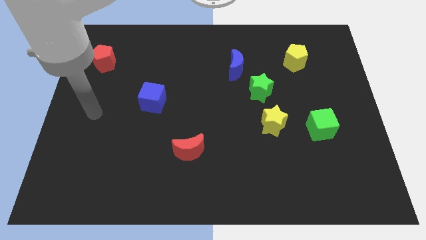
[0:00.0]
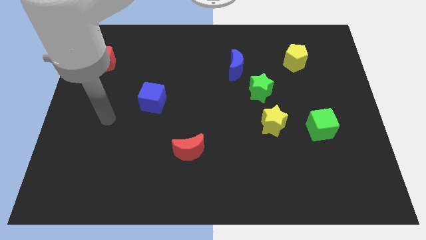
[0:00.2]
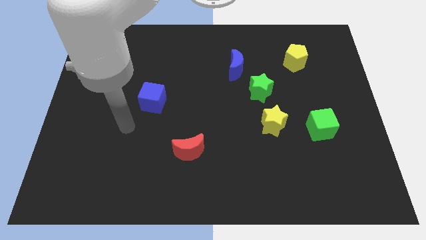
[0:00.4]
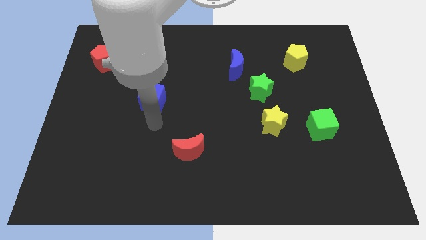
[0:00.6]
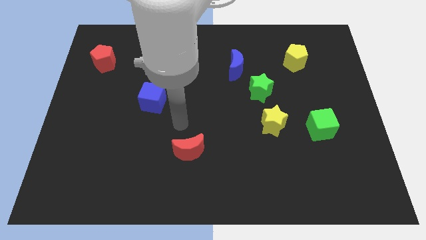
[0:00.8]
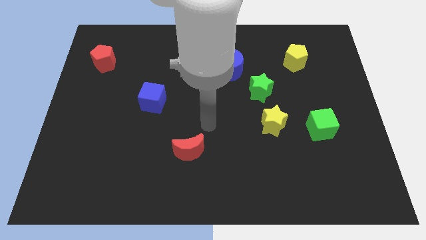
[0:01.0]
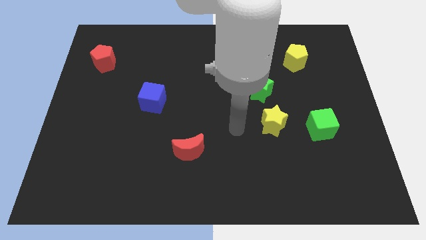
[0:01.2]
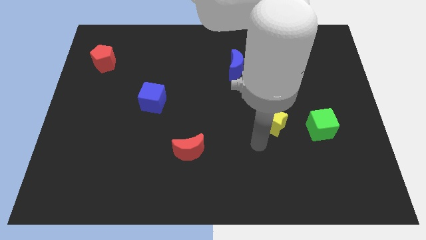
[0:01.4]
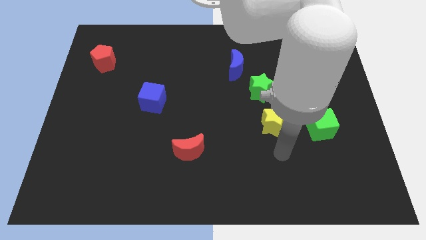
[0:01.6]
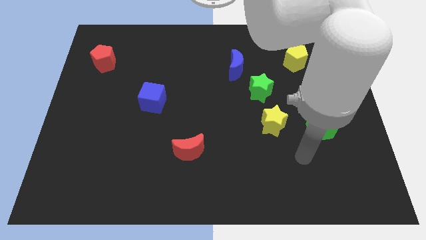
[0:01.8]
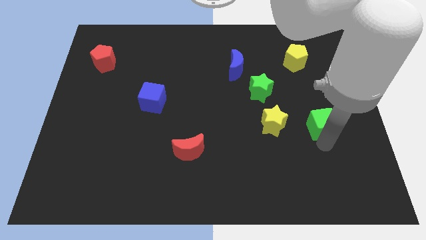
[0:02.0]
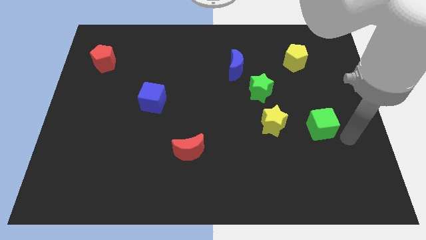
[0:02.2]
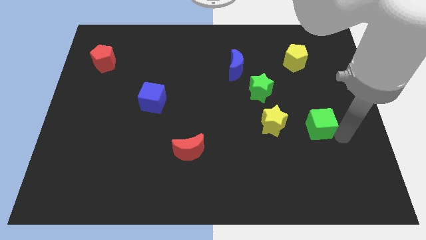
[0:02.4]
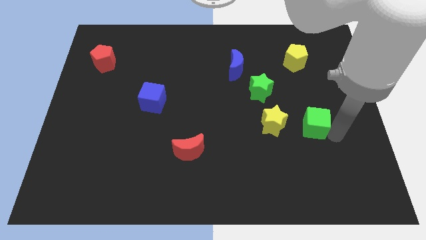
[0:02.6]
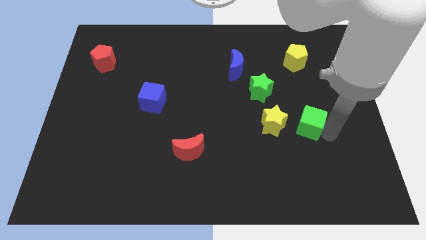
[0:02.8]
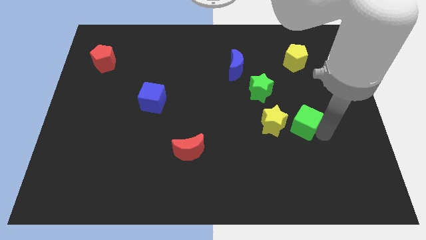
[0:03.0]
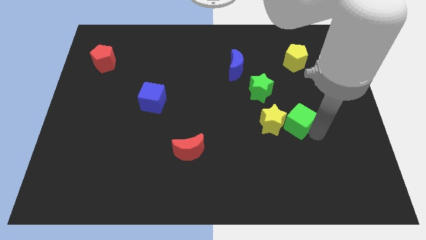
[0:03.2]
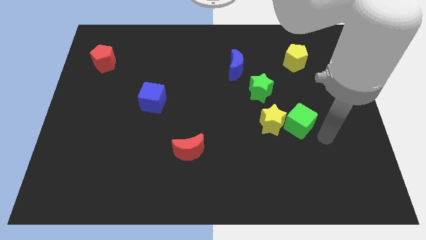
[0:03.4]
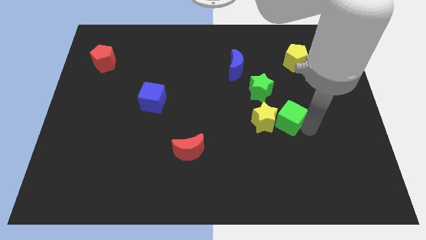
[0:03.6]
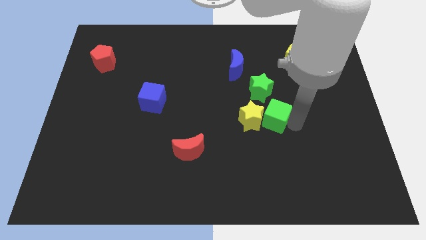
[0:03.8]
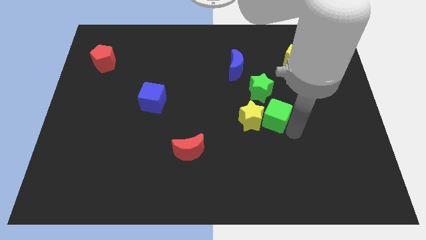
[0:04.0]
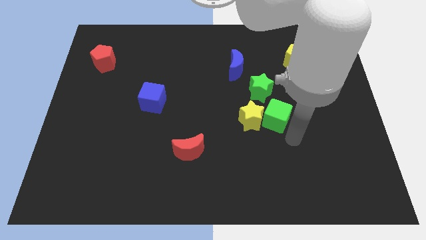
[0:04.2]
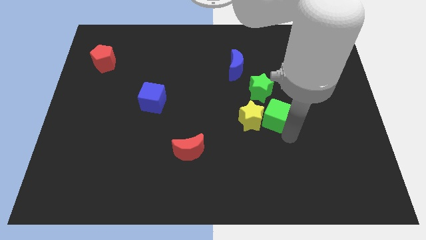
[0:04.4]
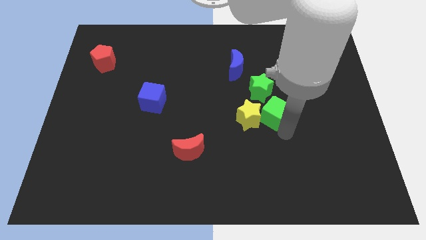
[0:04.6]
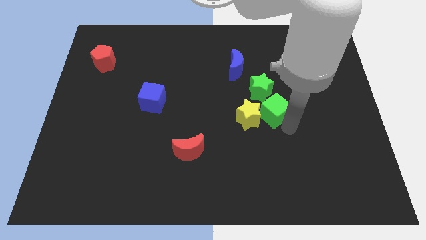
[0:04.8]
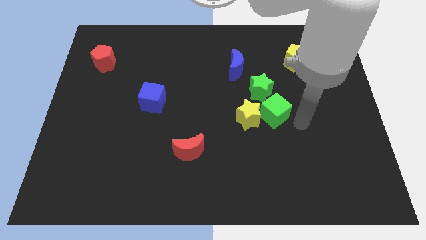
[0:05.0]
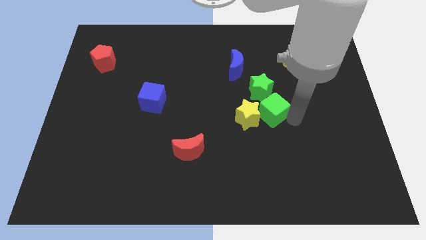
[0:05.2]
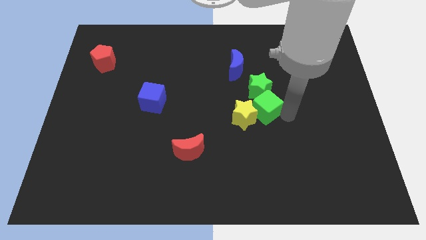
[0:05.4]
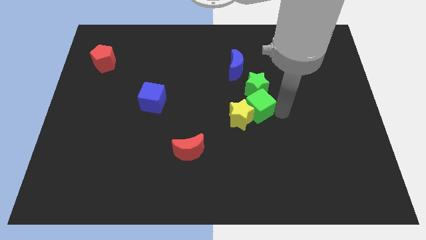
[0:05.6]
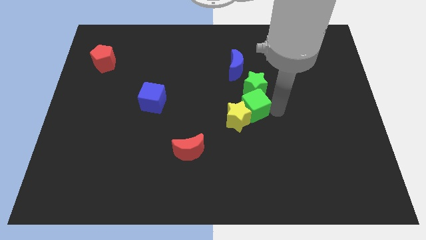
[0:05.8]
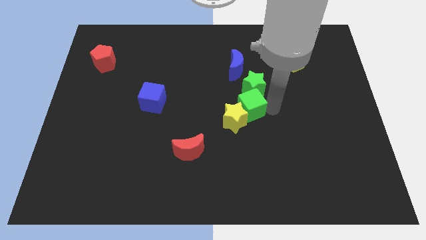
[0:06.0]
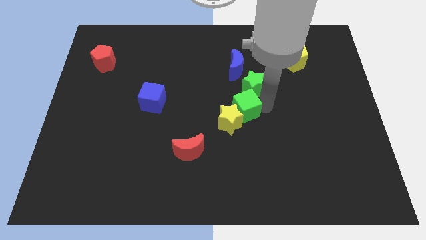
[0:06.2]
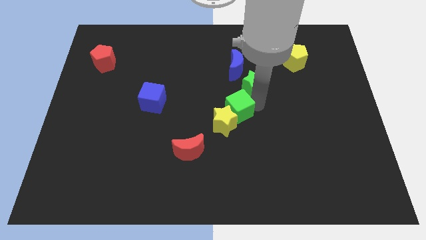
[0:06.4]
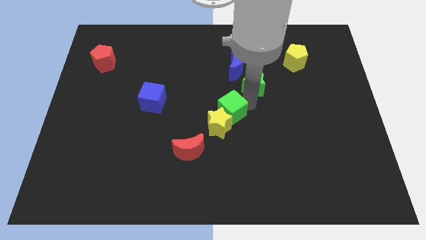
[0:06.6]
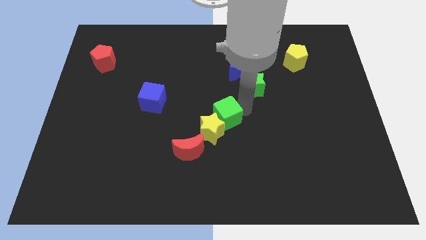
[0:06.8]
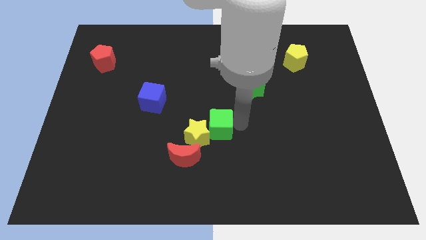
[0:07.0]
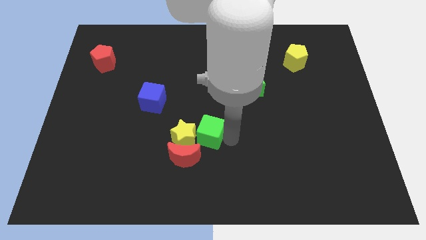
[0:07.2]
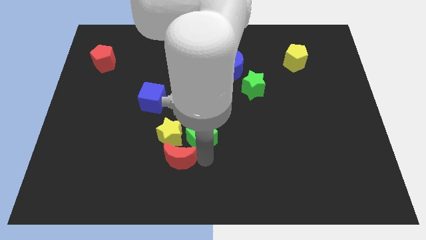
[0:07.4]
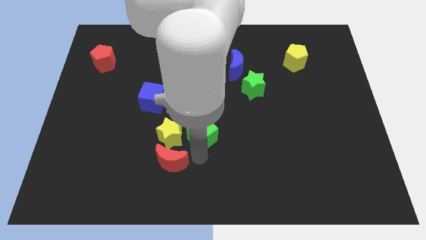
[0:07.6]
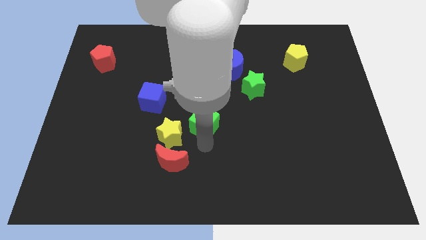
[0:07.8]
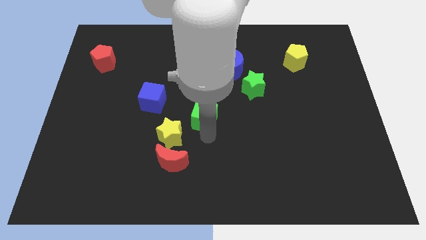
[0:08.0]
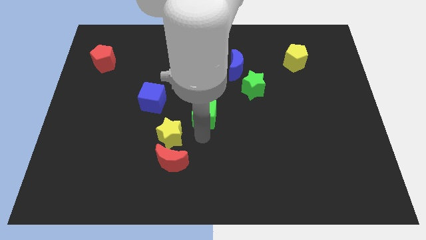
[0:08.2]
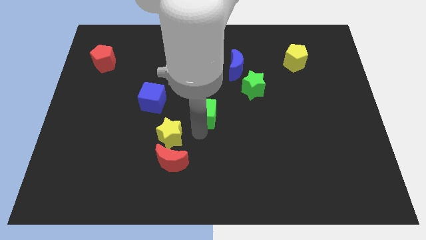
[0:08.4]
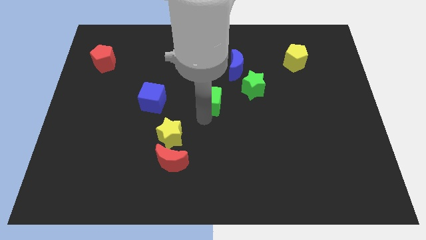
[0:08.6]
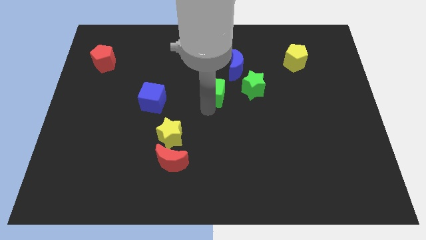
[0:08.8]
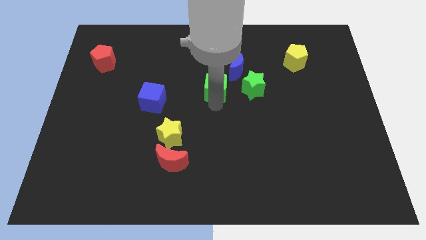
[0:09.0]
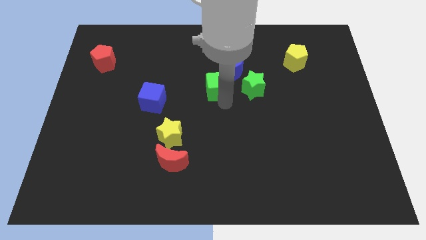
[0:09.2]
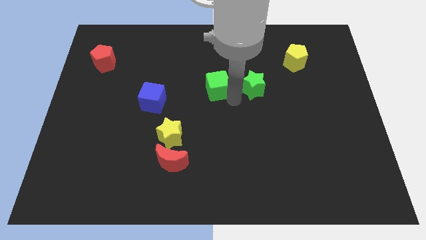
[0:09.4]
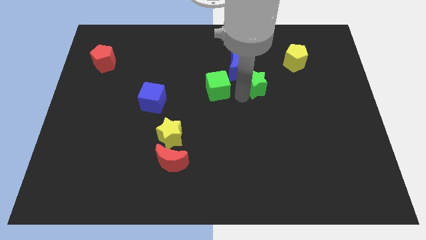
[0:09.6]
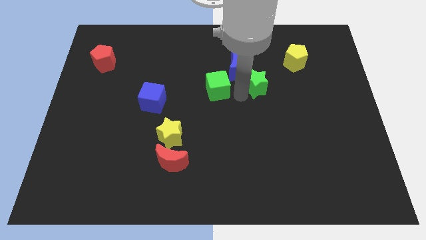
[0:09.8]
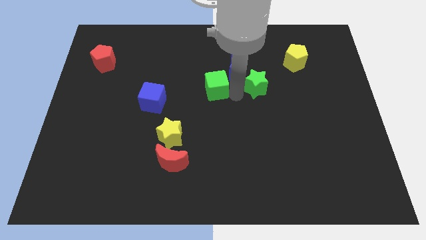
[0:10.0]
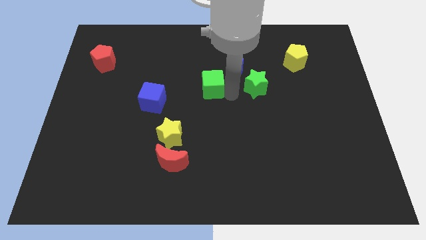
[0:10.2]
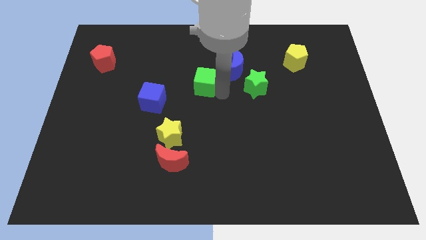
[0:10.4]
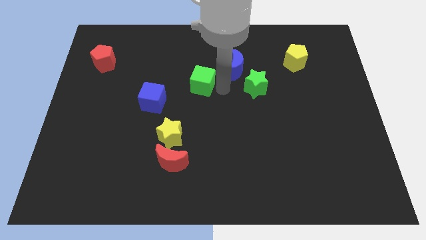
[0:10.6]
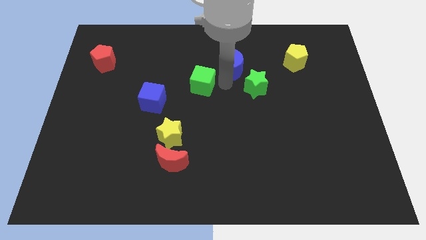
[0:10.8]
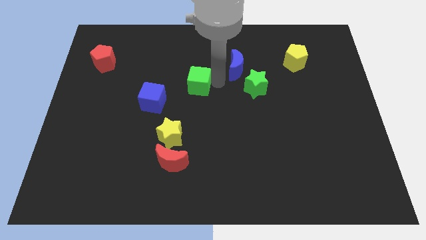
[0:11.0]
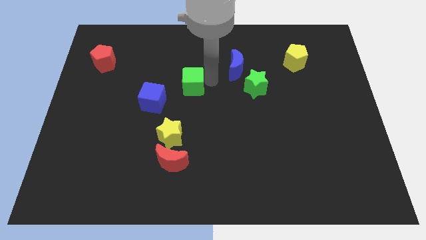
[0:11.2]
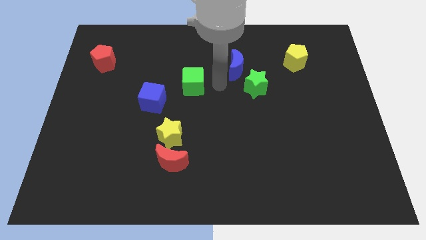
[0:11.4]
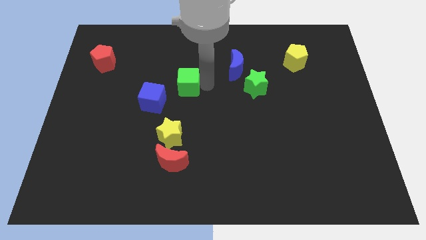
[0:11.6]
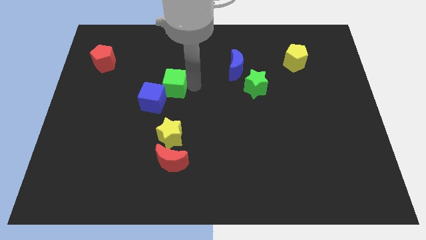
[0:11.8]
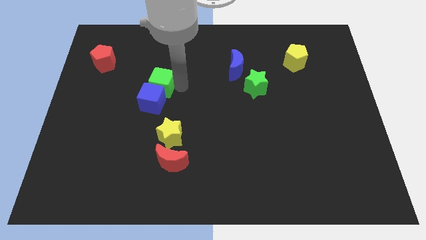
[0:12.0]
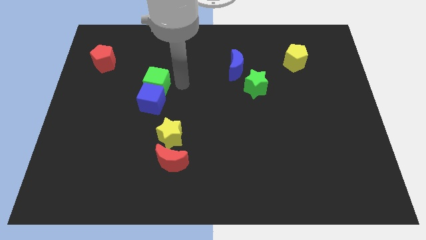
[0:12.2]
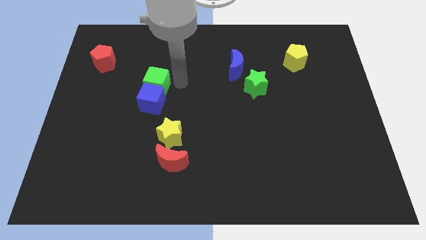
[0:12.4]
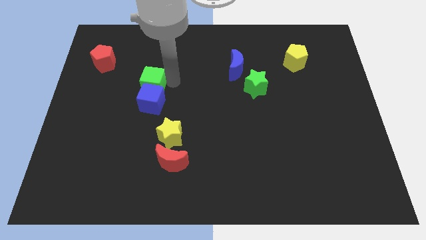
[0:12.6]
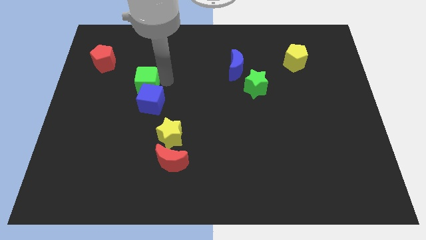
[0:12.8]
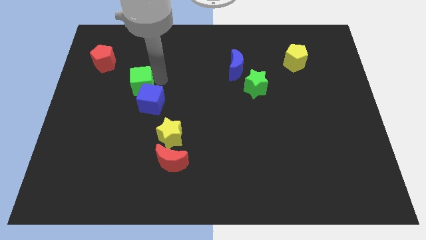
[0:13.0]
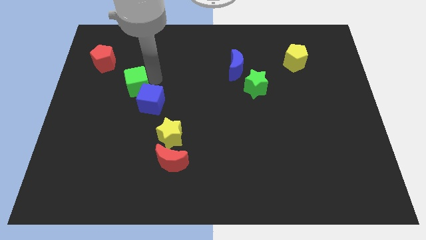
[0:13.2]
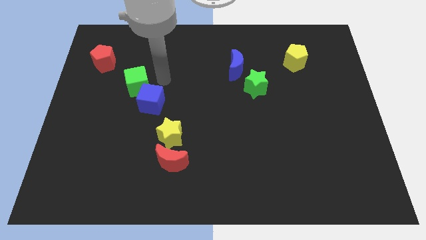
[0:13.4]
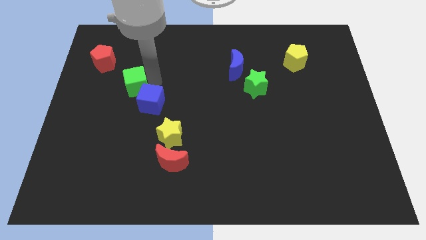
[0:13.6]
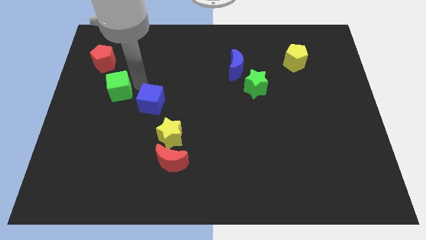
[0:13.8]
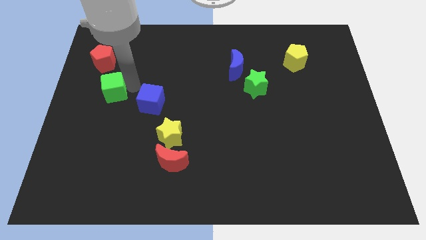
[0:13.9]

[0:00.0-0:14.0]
push the green cube to the bottom side of the red pentagon
